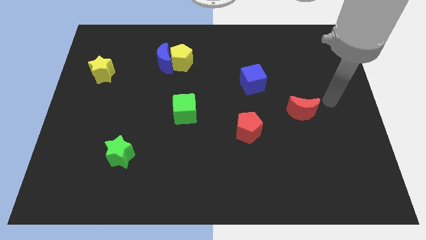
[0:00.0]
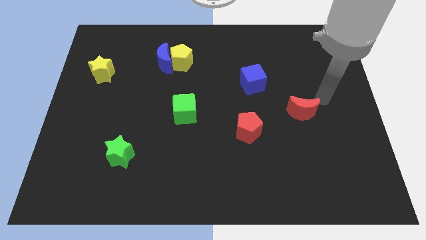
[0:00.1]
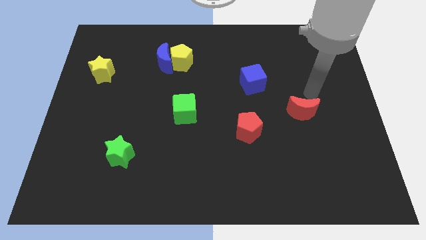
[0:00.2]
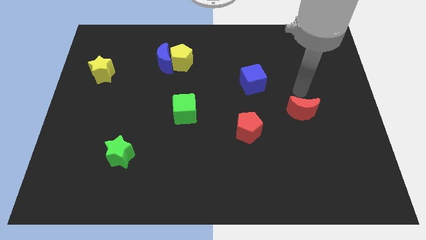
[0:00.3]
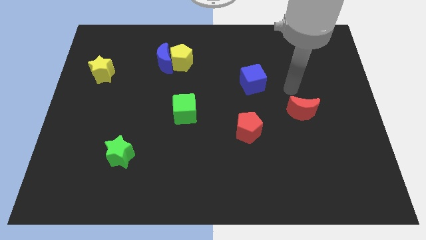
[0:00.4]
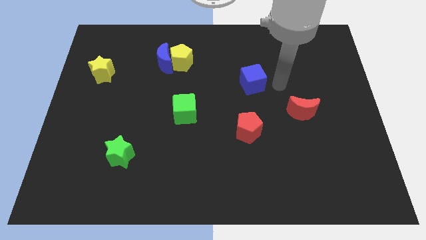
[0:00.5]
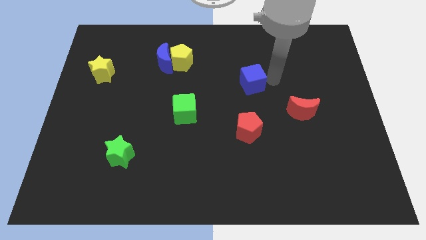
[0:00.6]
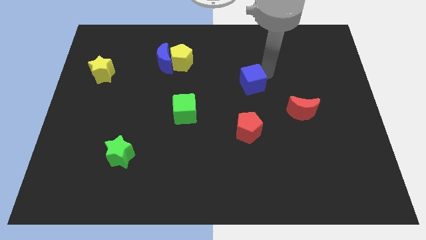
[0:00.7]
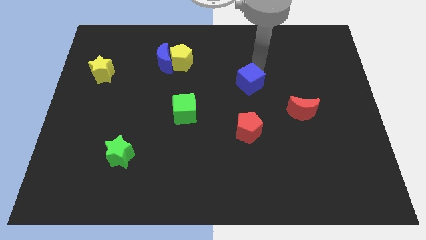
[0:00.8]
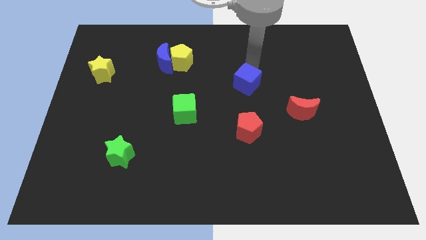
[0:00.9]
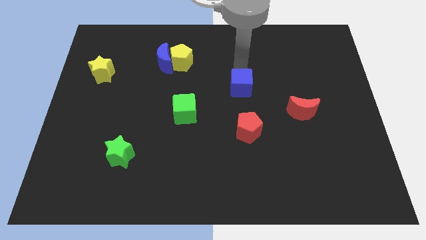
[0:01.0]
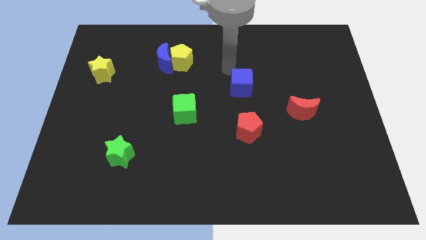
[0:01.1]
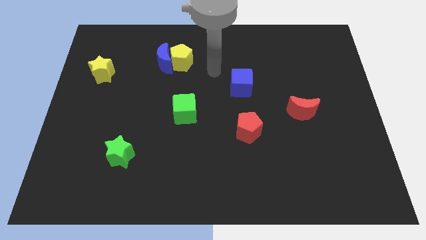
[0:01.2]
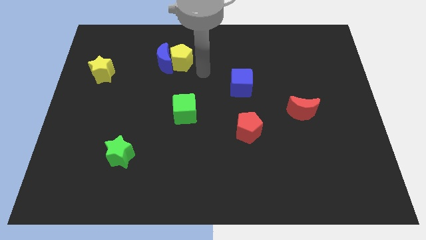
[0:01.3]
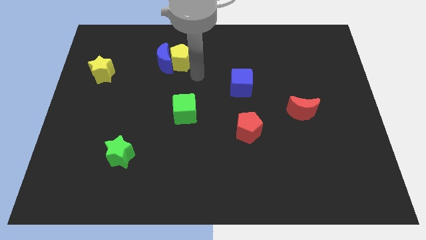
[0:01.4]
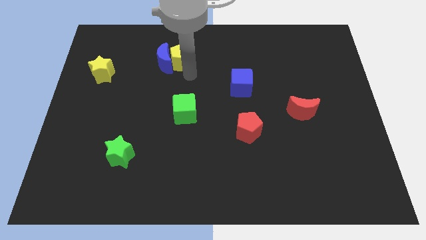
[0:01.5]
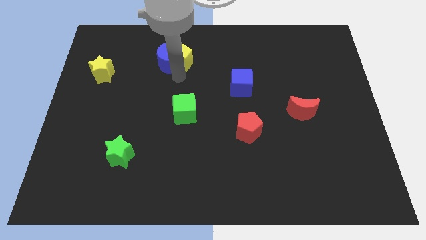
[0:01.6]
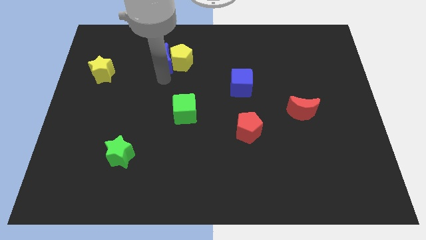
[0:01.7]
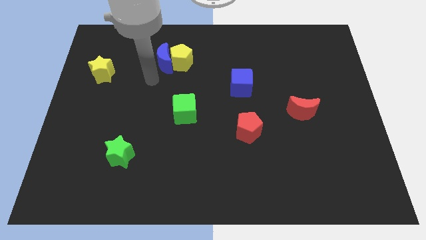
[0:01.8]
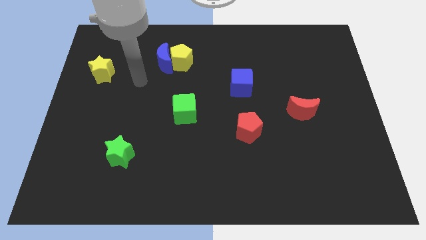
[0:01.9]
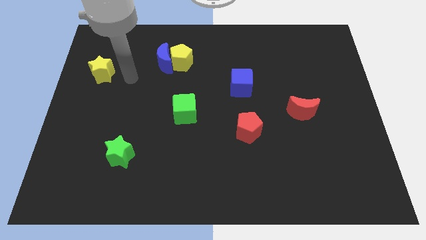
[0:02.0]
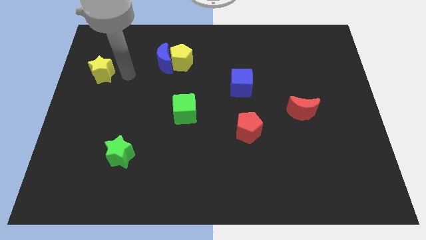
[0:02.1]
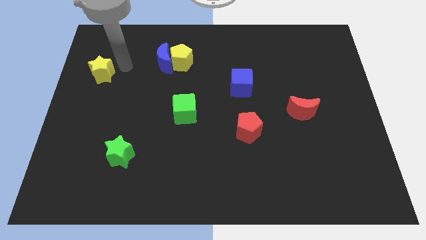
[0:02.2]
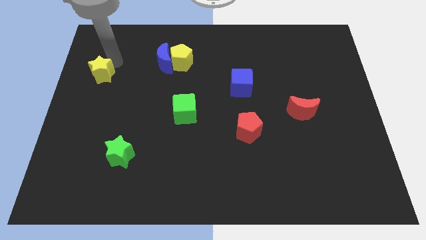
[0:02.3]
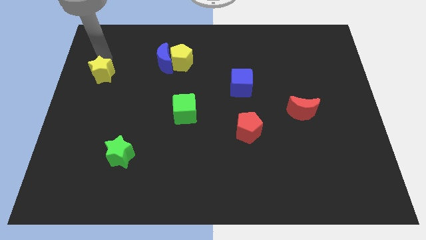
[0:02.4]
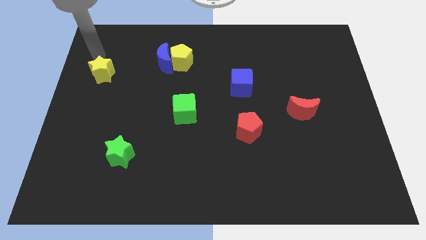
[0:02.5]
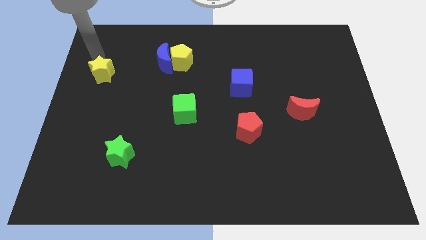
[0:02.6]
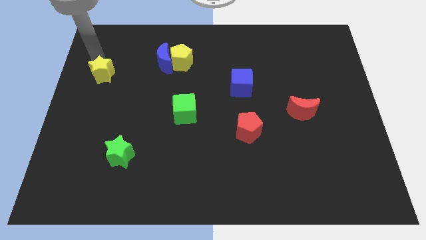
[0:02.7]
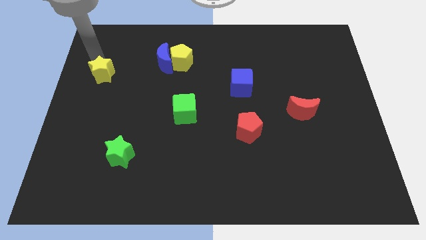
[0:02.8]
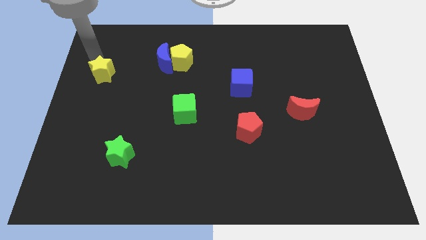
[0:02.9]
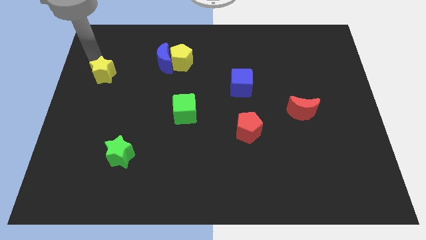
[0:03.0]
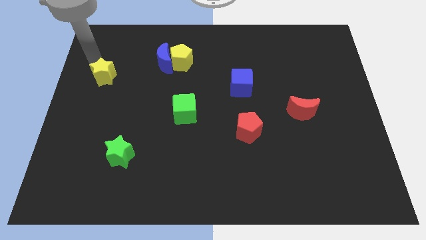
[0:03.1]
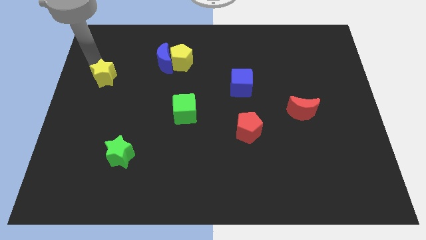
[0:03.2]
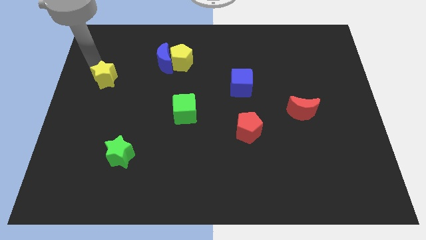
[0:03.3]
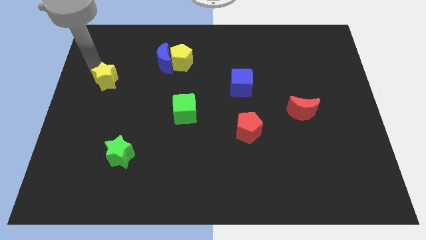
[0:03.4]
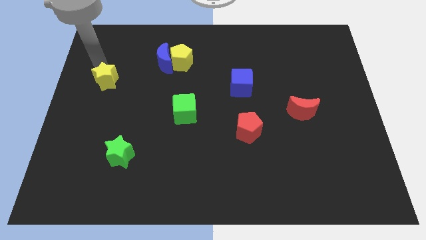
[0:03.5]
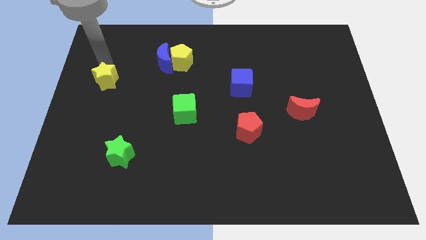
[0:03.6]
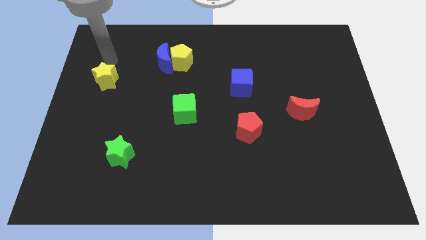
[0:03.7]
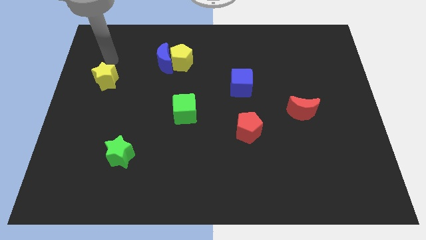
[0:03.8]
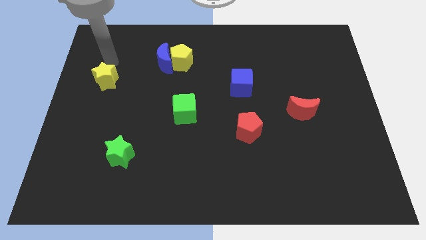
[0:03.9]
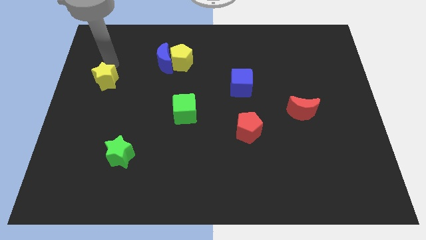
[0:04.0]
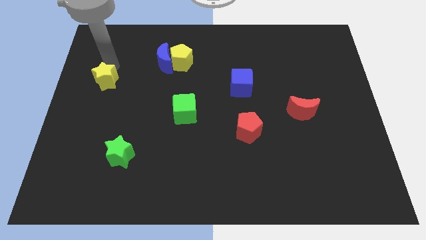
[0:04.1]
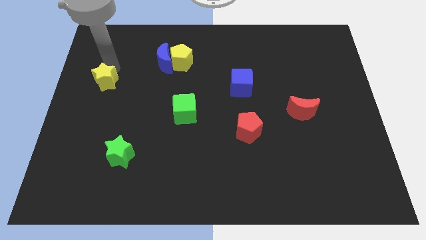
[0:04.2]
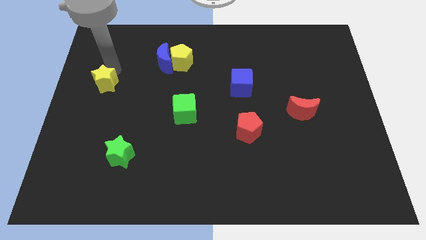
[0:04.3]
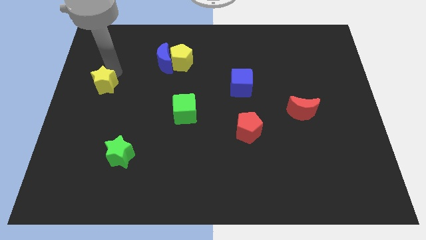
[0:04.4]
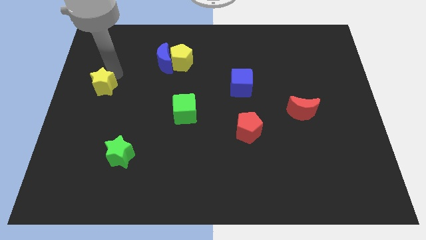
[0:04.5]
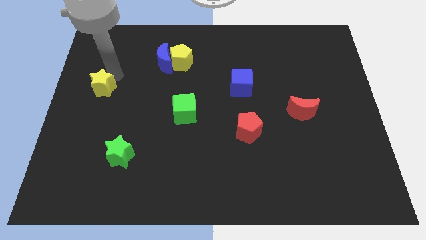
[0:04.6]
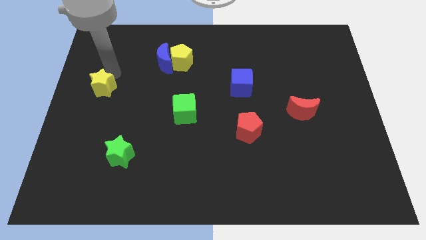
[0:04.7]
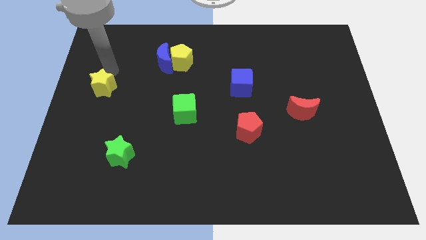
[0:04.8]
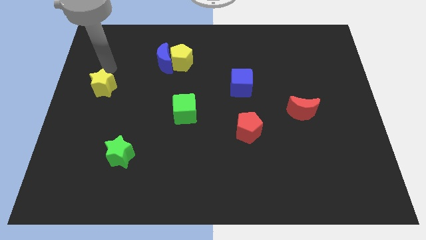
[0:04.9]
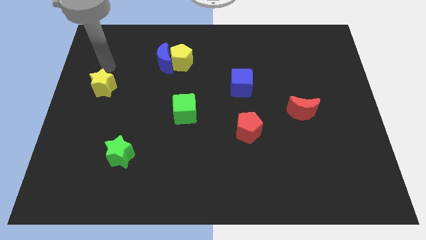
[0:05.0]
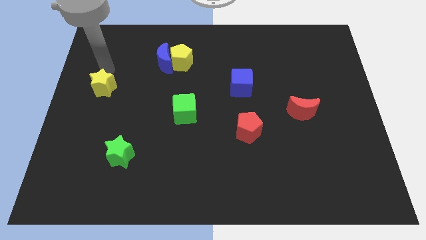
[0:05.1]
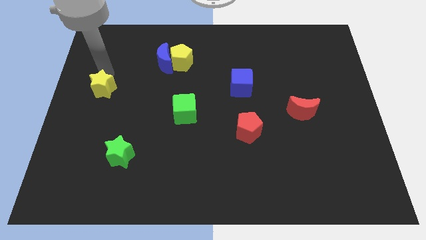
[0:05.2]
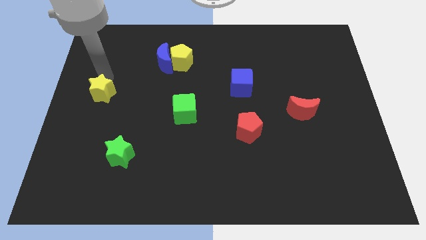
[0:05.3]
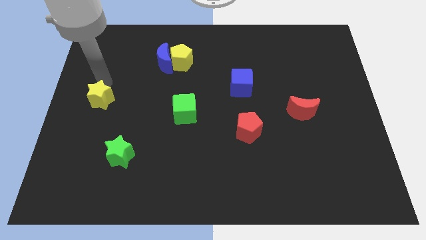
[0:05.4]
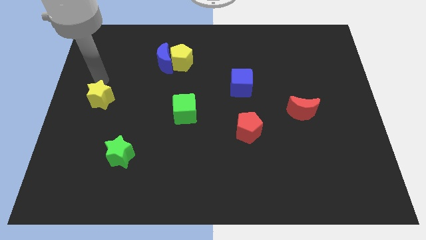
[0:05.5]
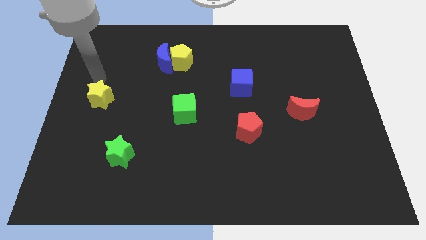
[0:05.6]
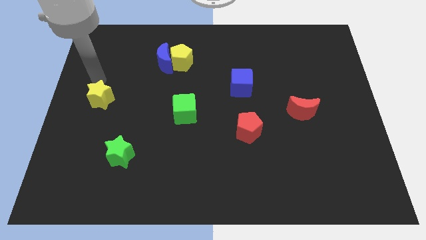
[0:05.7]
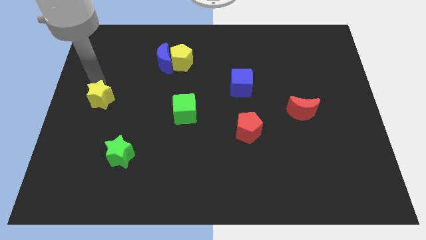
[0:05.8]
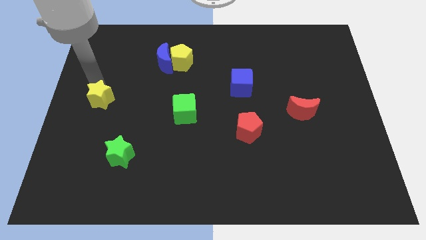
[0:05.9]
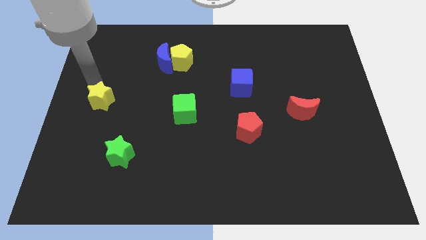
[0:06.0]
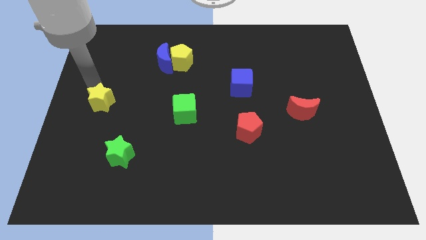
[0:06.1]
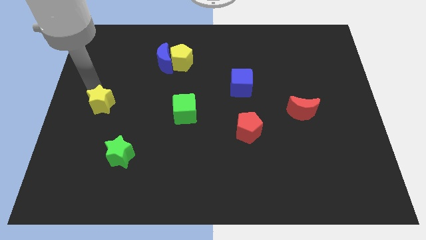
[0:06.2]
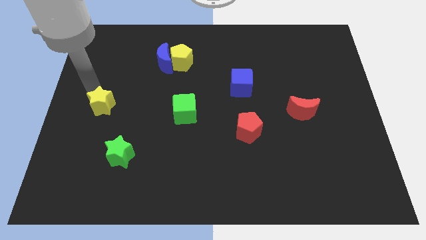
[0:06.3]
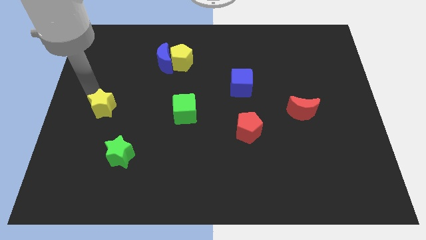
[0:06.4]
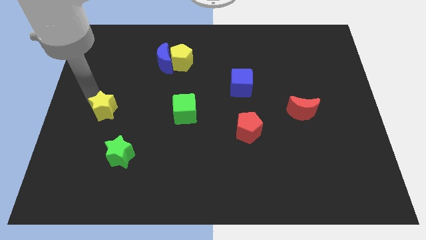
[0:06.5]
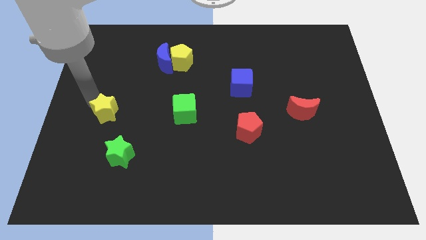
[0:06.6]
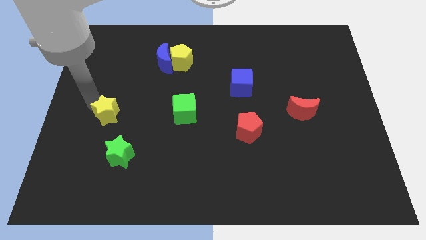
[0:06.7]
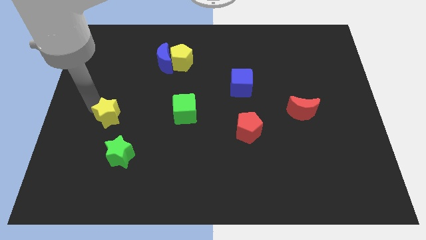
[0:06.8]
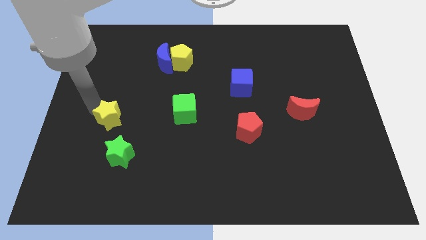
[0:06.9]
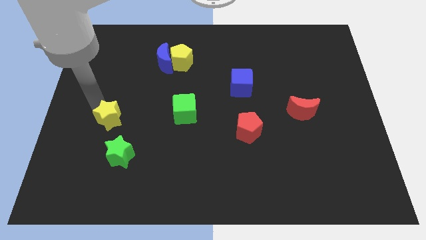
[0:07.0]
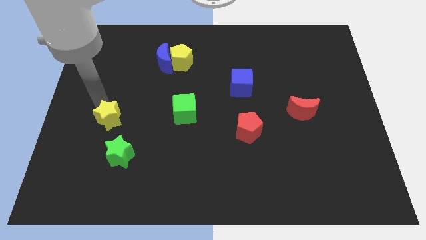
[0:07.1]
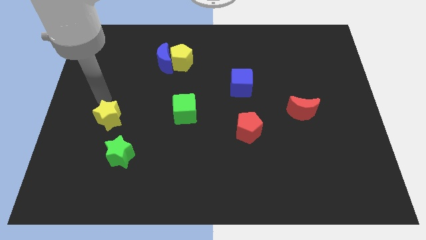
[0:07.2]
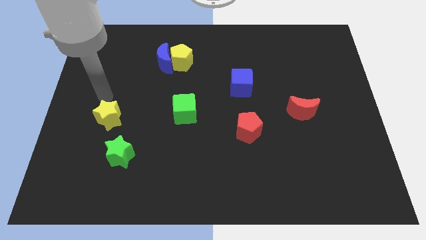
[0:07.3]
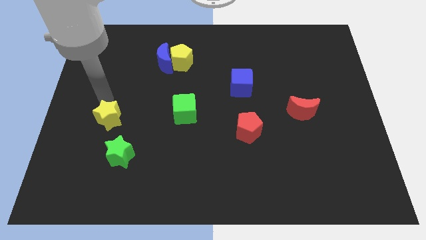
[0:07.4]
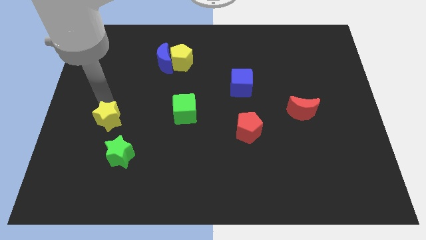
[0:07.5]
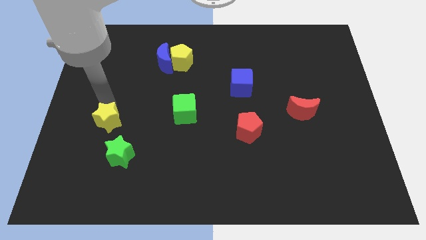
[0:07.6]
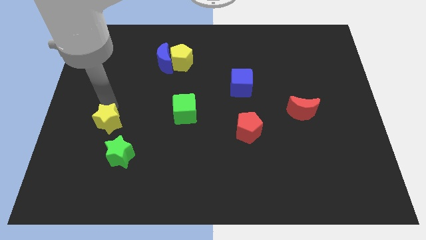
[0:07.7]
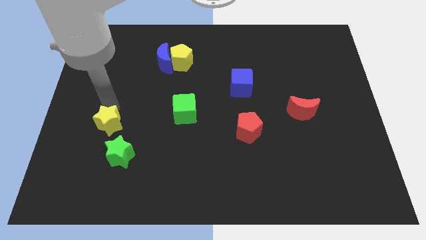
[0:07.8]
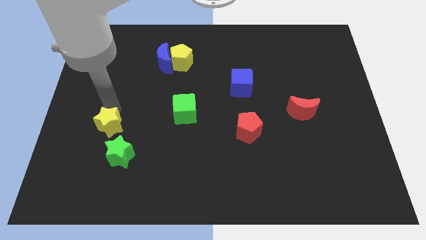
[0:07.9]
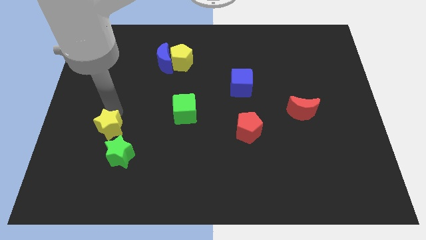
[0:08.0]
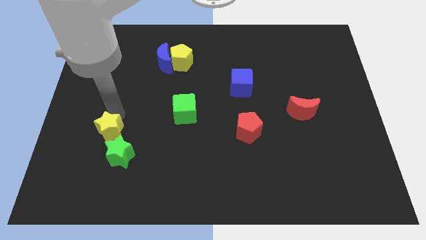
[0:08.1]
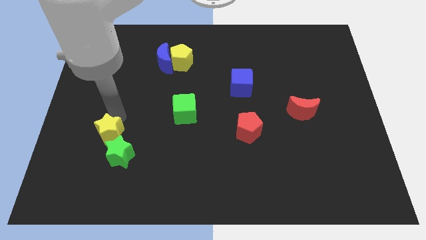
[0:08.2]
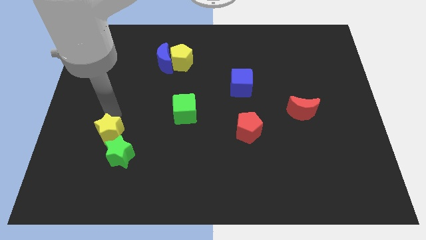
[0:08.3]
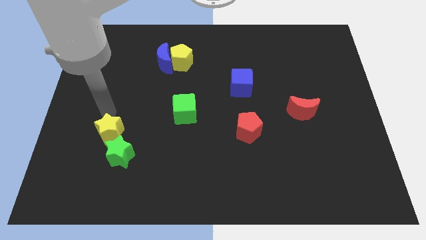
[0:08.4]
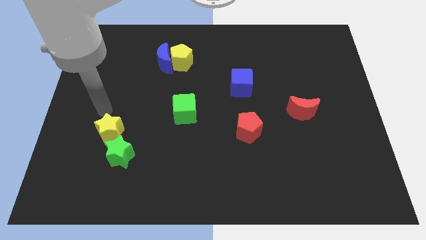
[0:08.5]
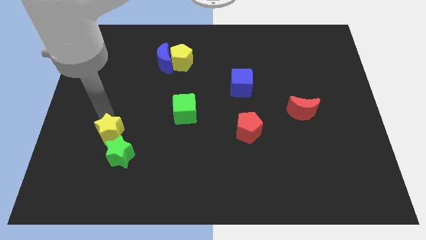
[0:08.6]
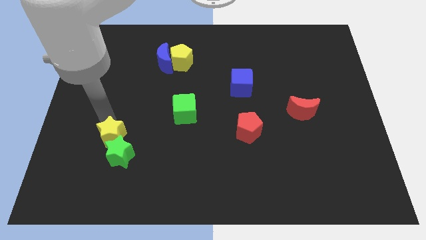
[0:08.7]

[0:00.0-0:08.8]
move the yellow star to the green star
